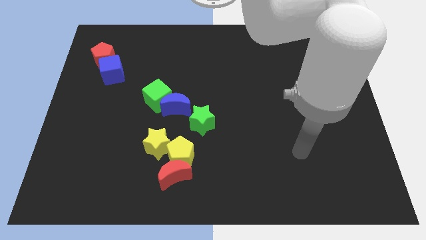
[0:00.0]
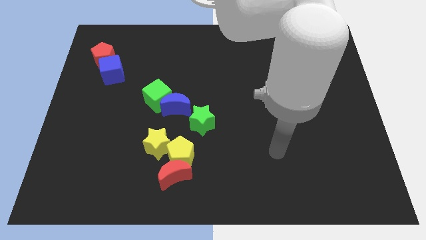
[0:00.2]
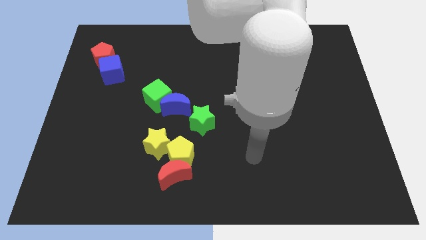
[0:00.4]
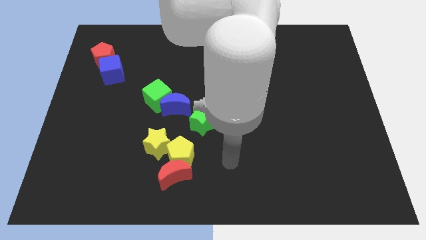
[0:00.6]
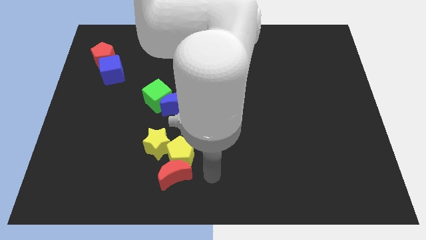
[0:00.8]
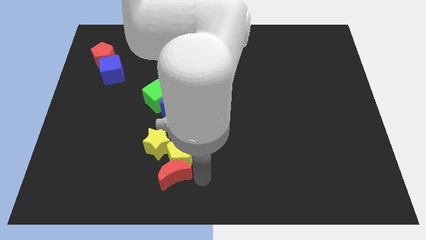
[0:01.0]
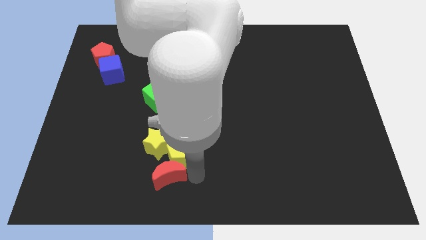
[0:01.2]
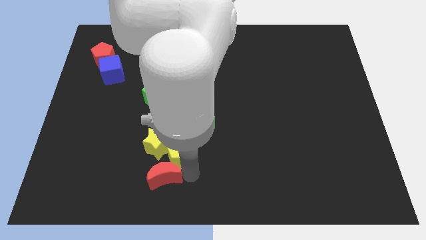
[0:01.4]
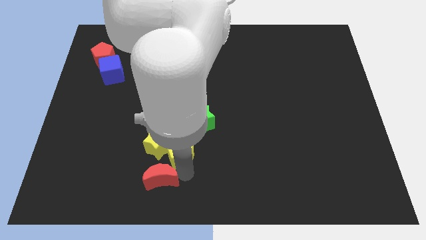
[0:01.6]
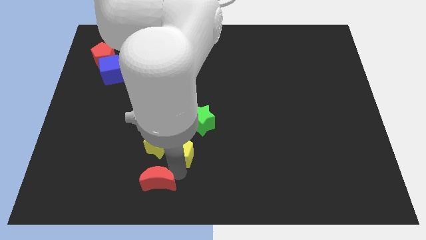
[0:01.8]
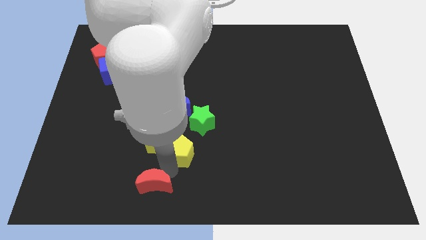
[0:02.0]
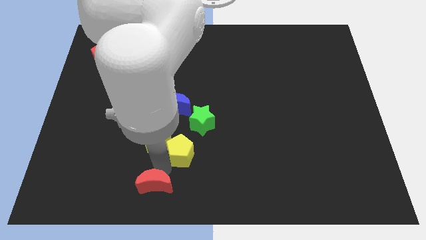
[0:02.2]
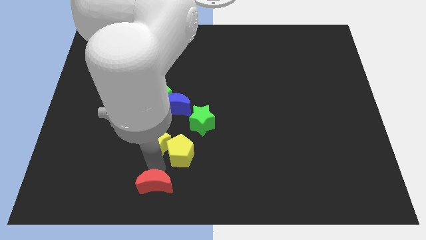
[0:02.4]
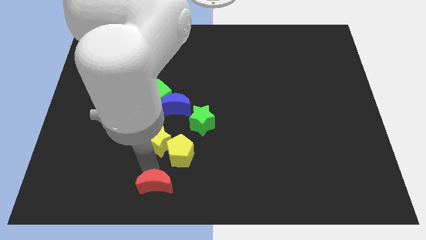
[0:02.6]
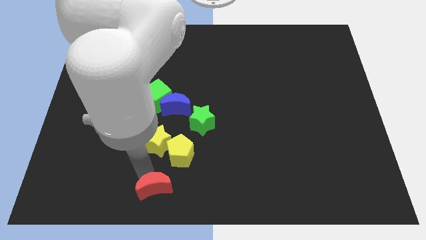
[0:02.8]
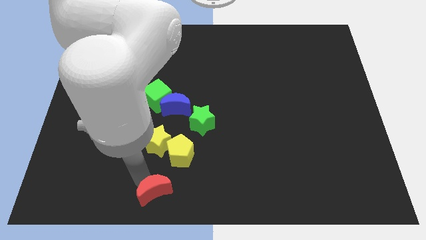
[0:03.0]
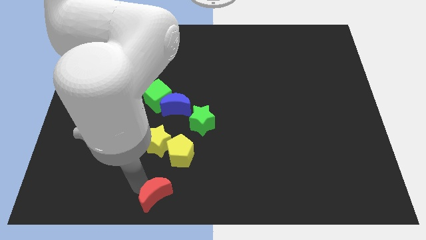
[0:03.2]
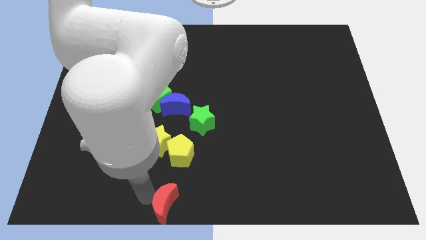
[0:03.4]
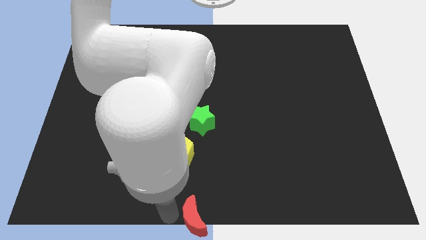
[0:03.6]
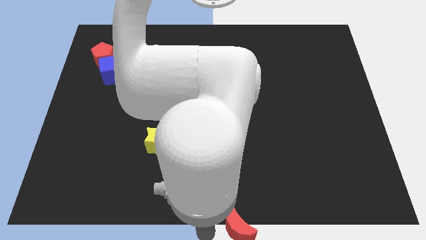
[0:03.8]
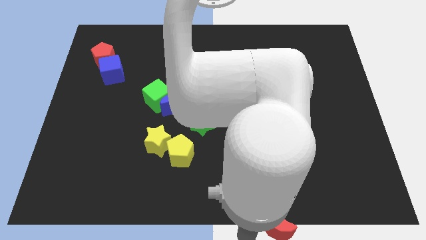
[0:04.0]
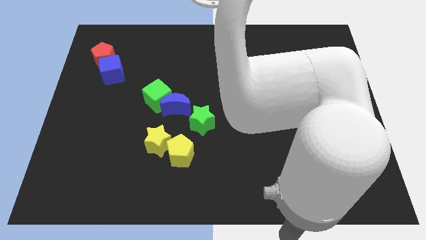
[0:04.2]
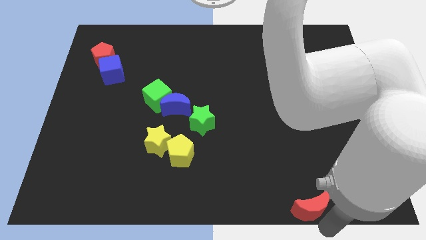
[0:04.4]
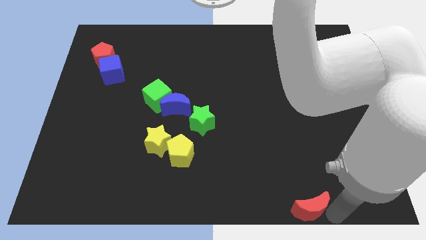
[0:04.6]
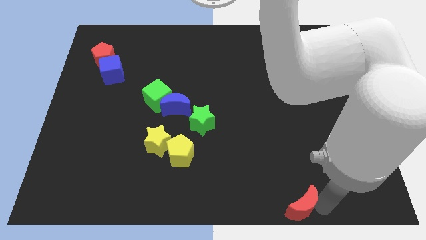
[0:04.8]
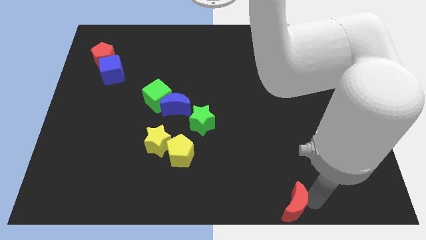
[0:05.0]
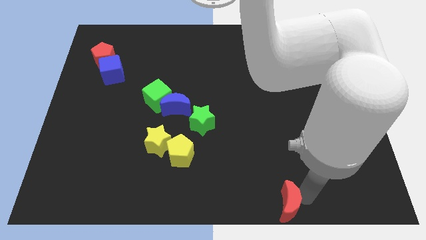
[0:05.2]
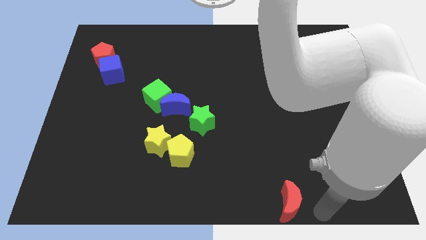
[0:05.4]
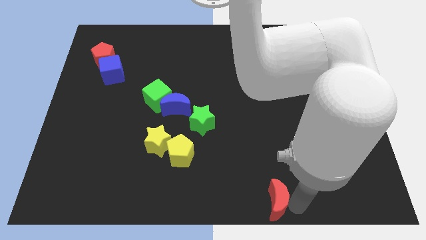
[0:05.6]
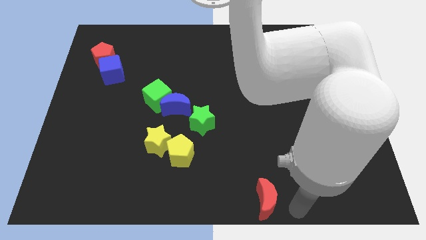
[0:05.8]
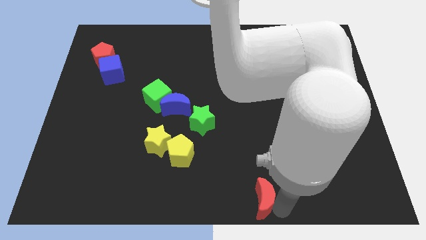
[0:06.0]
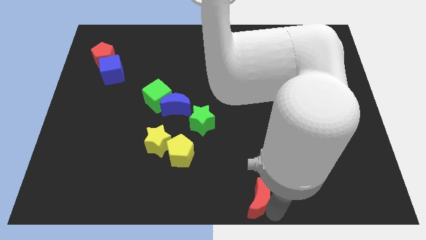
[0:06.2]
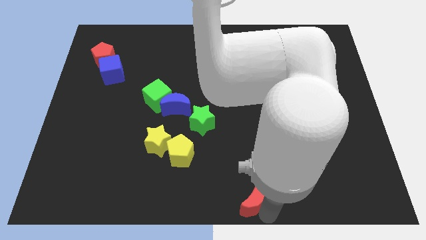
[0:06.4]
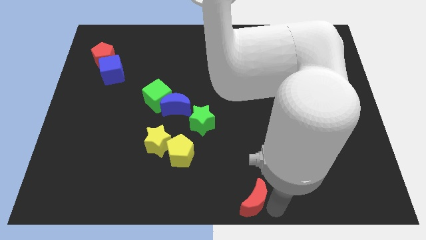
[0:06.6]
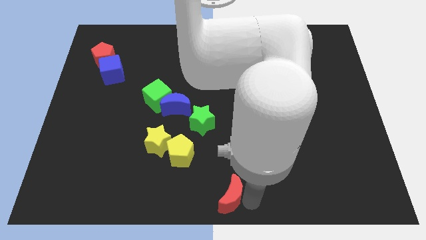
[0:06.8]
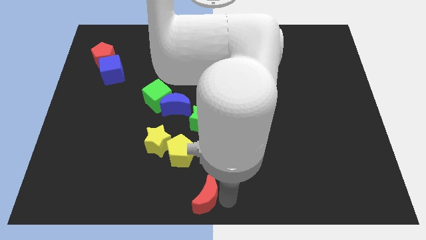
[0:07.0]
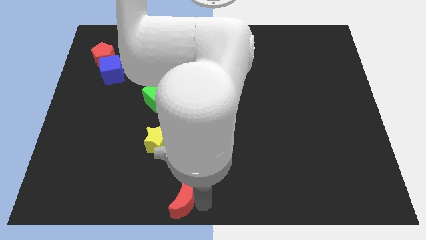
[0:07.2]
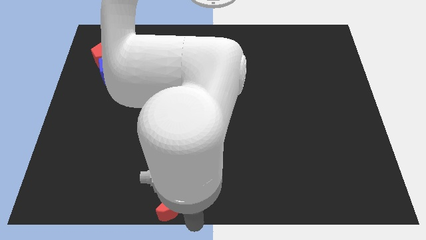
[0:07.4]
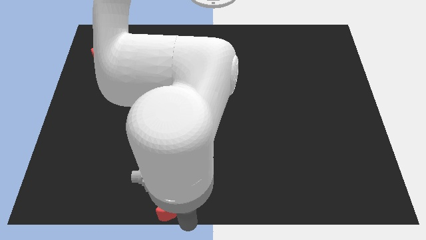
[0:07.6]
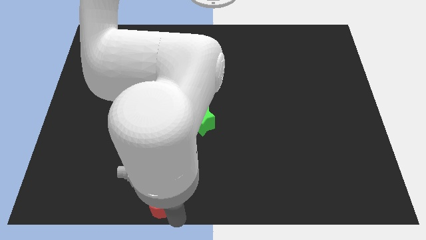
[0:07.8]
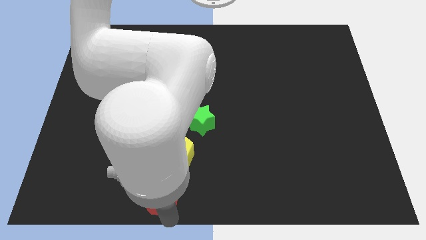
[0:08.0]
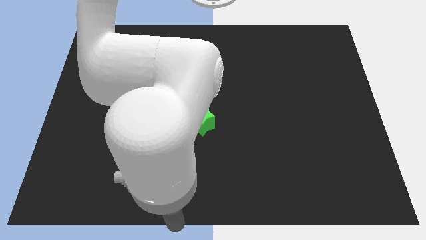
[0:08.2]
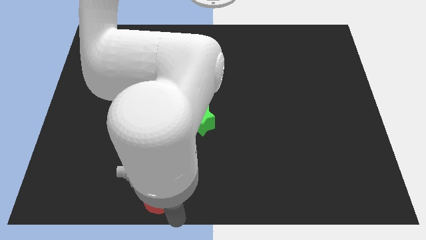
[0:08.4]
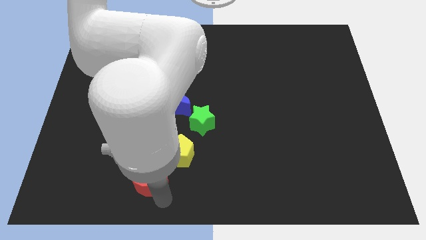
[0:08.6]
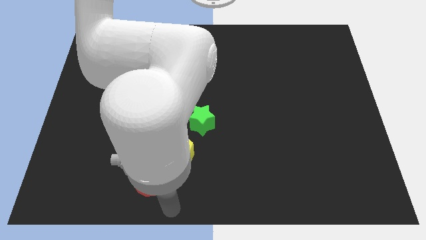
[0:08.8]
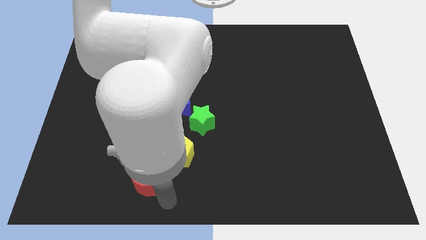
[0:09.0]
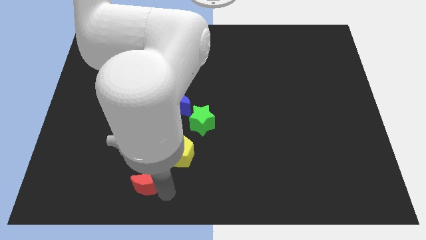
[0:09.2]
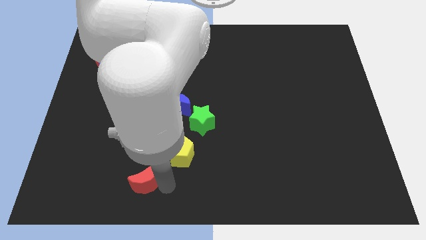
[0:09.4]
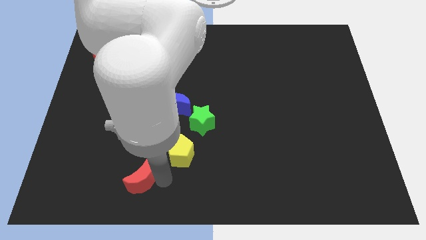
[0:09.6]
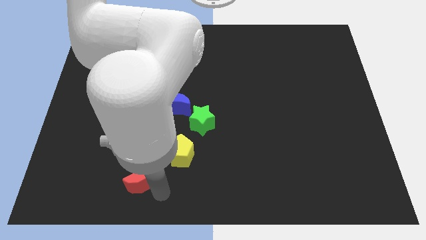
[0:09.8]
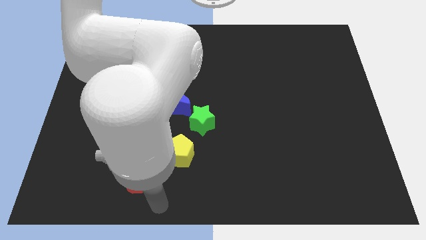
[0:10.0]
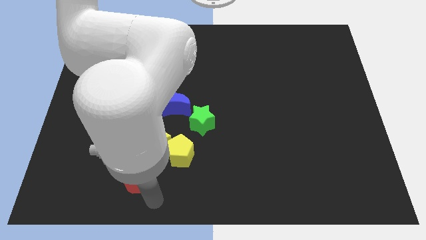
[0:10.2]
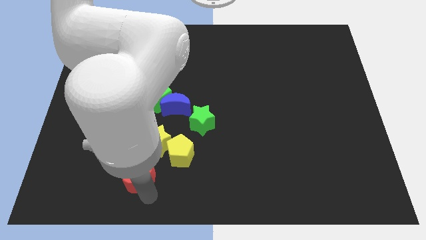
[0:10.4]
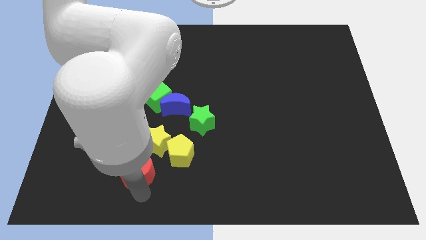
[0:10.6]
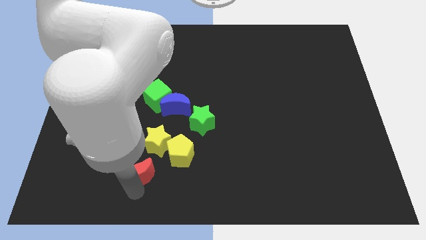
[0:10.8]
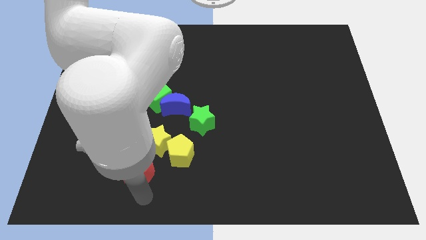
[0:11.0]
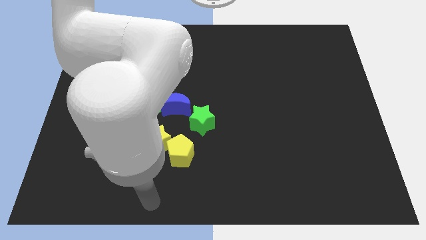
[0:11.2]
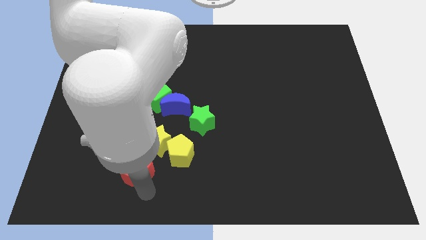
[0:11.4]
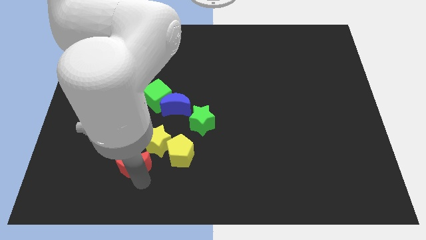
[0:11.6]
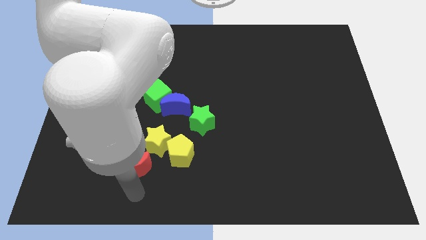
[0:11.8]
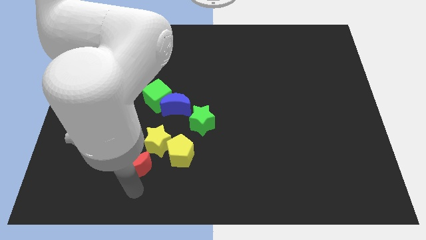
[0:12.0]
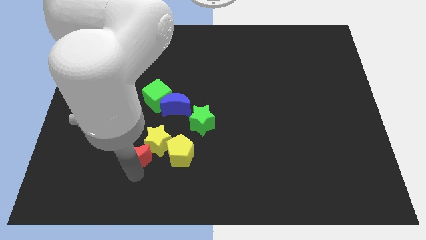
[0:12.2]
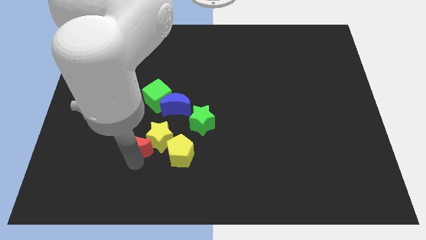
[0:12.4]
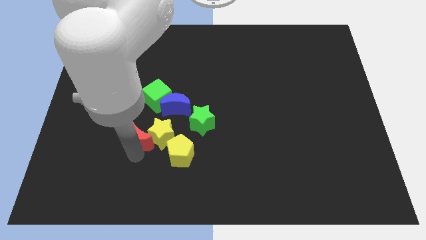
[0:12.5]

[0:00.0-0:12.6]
slide the red moon diagonally up and to the left of the yellow star

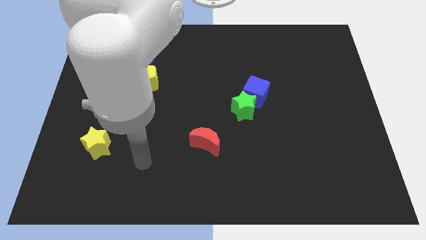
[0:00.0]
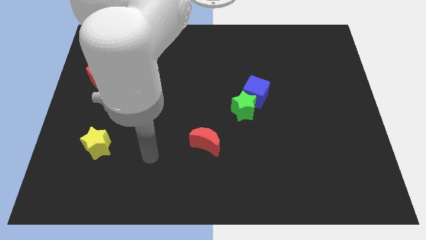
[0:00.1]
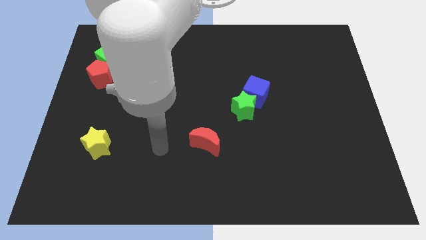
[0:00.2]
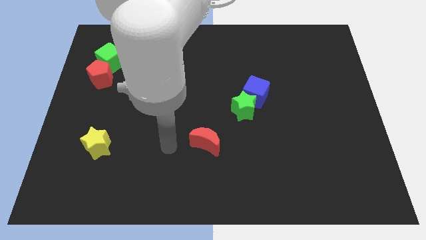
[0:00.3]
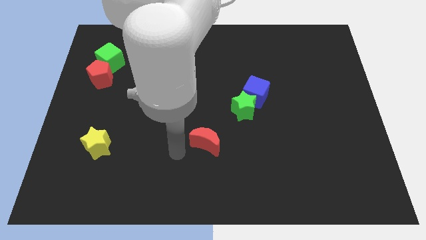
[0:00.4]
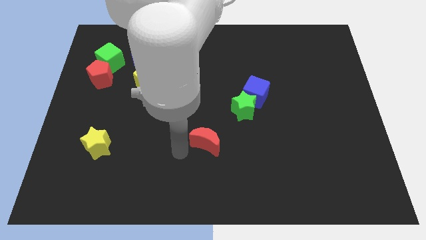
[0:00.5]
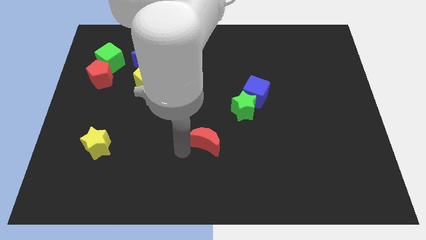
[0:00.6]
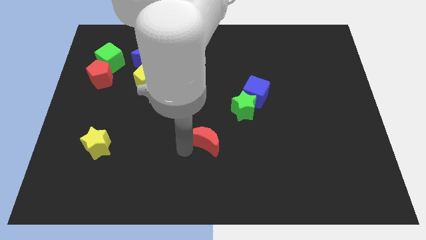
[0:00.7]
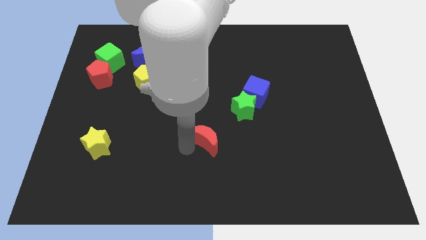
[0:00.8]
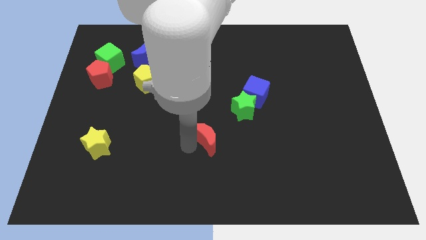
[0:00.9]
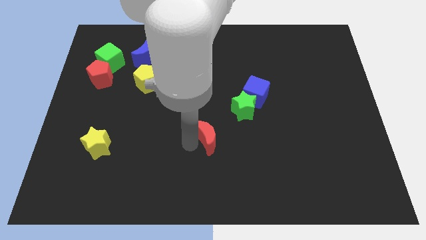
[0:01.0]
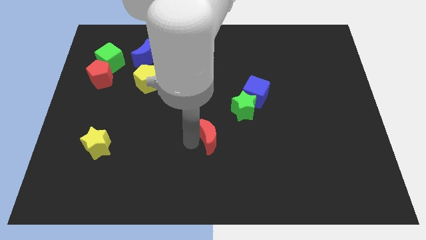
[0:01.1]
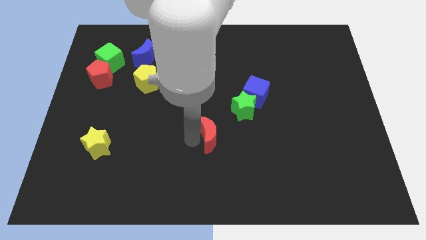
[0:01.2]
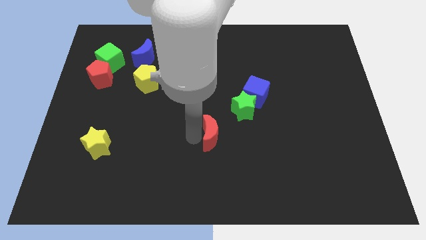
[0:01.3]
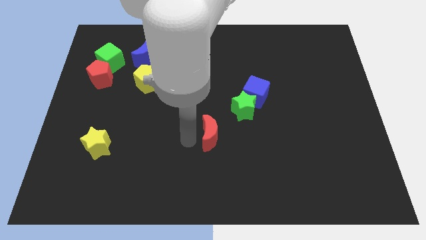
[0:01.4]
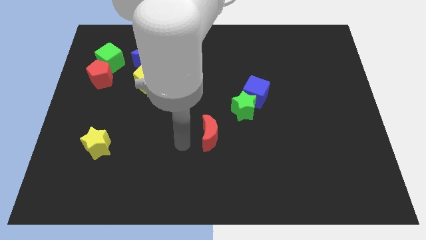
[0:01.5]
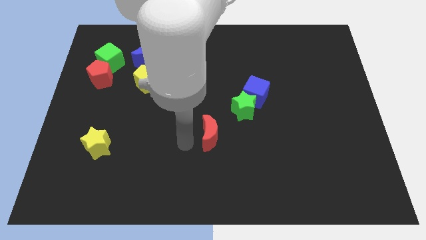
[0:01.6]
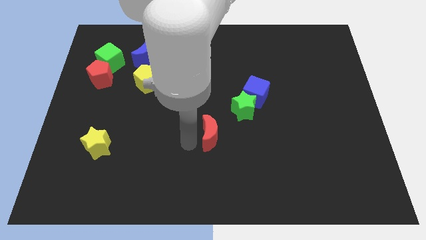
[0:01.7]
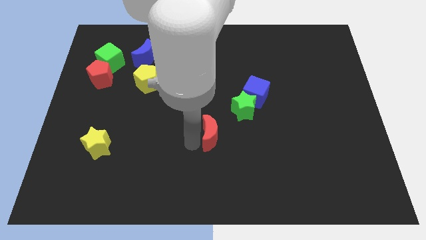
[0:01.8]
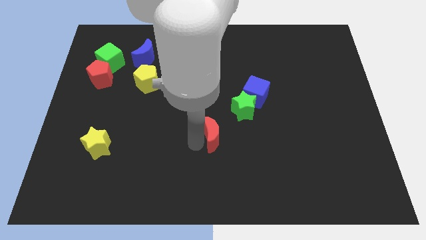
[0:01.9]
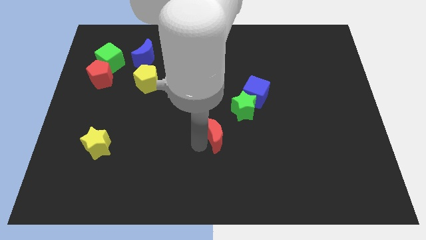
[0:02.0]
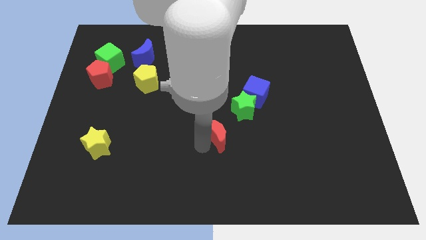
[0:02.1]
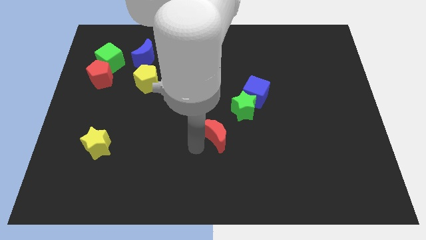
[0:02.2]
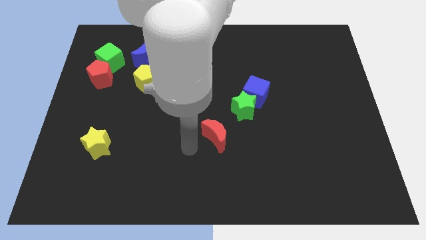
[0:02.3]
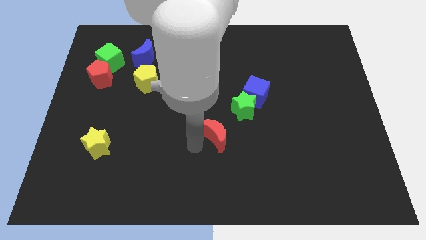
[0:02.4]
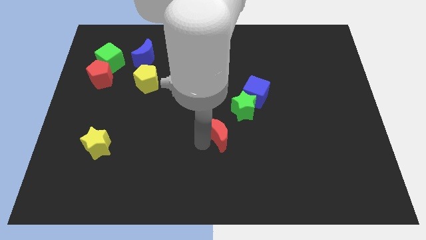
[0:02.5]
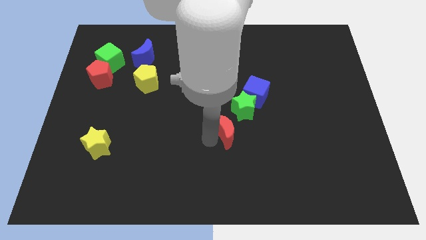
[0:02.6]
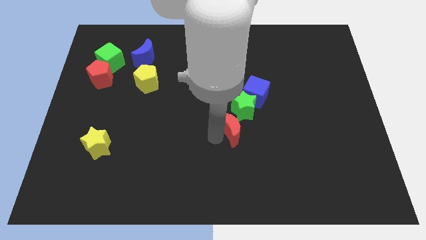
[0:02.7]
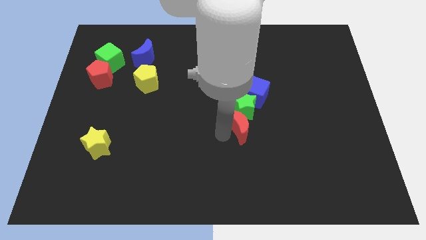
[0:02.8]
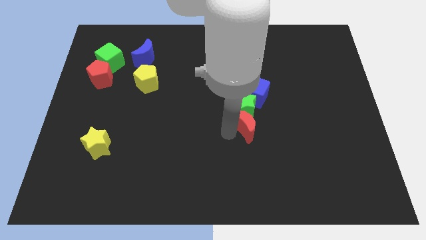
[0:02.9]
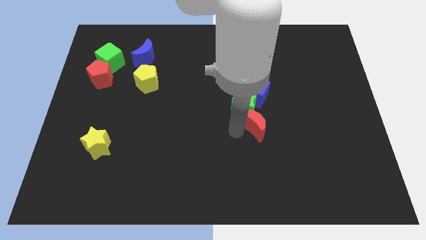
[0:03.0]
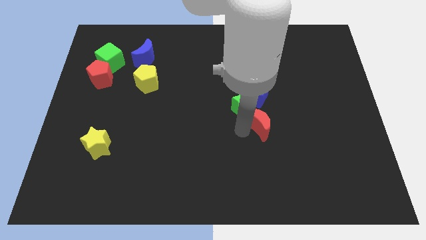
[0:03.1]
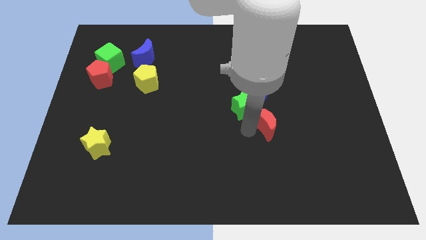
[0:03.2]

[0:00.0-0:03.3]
move the red moon just right of the green star
